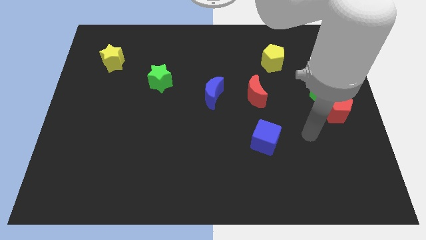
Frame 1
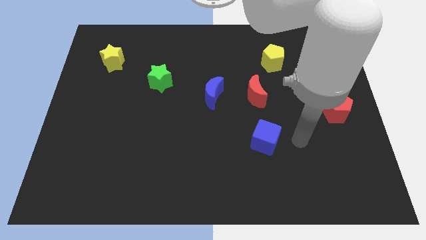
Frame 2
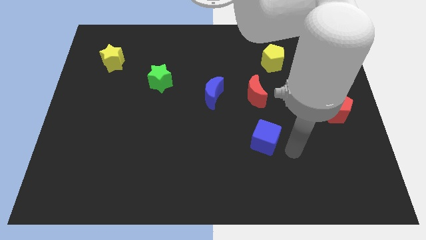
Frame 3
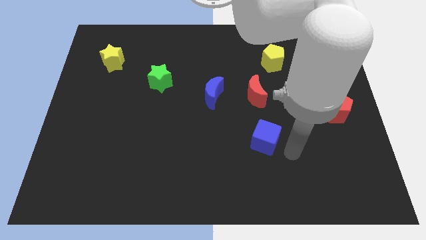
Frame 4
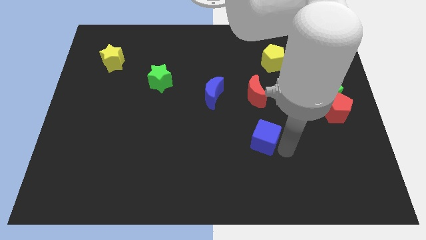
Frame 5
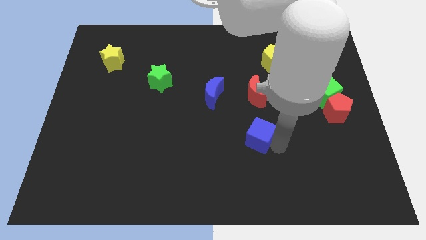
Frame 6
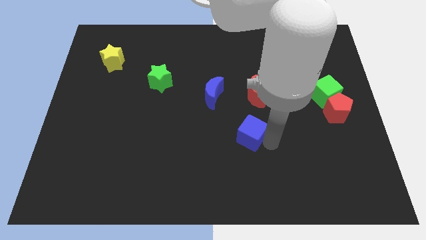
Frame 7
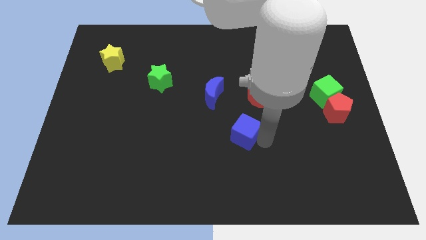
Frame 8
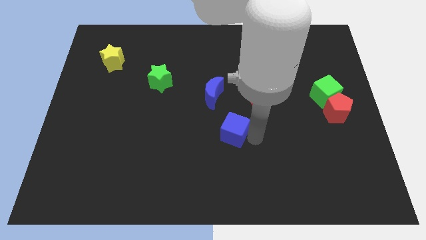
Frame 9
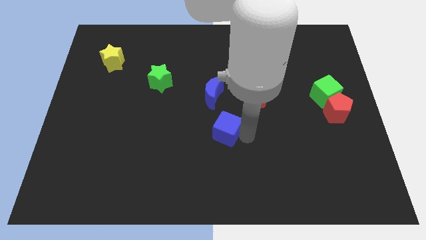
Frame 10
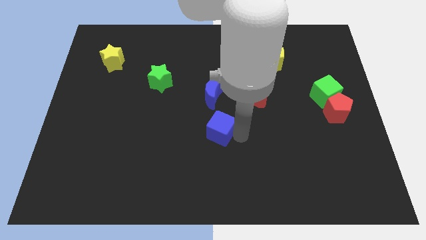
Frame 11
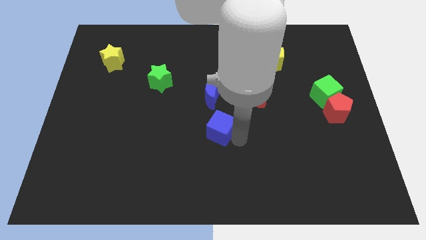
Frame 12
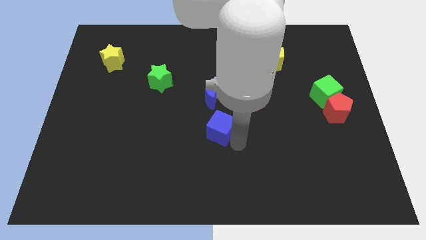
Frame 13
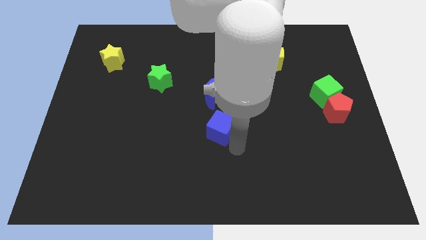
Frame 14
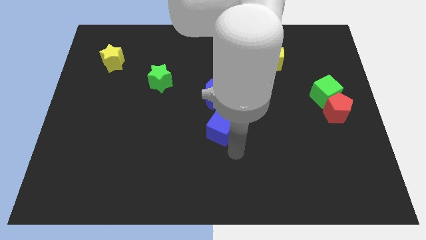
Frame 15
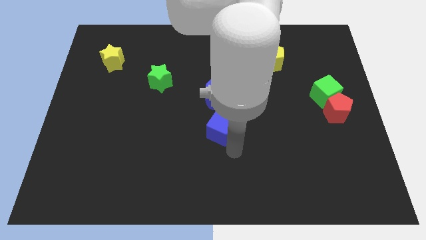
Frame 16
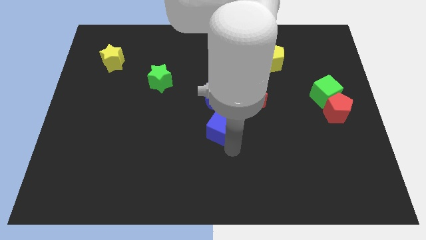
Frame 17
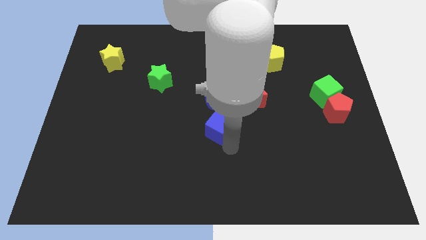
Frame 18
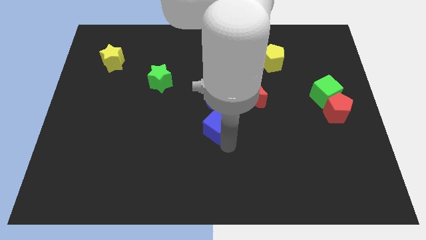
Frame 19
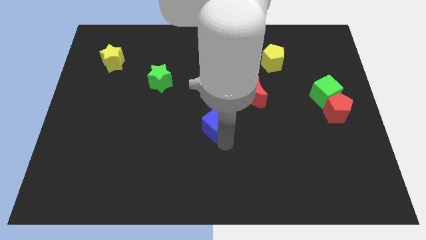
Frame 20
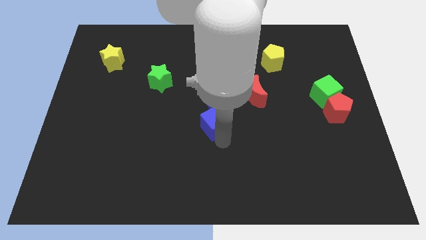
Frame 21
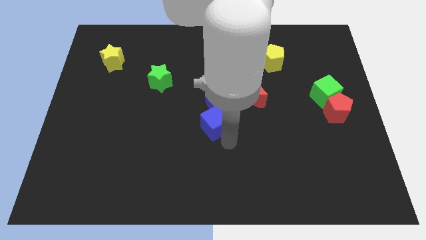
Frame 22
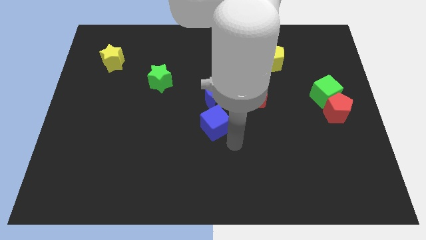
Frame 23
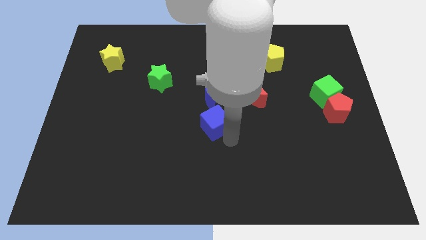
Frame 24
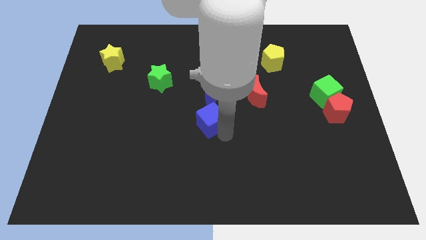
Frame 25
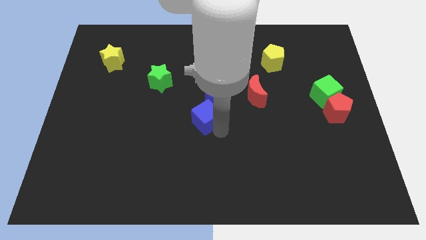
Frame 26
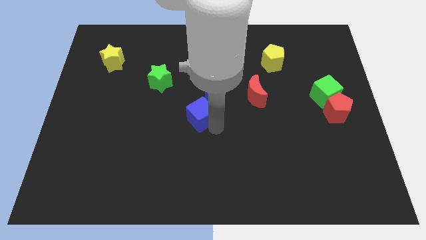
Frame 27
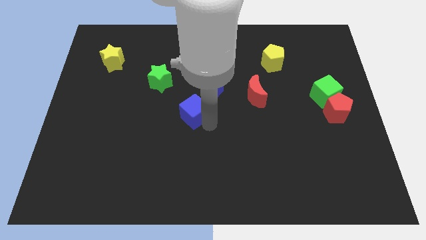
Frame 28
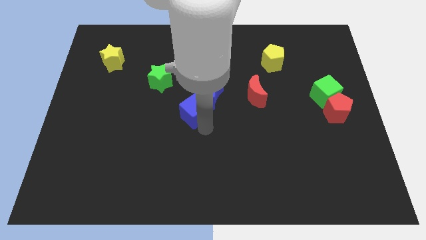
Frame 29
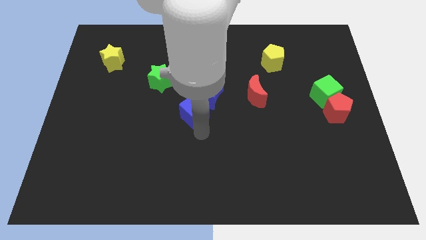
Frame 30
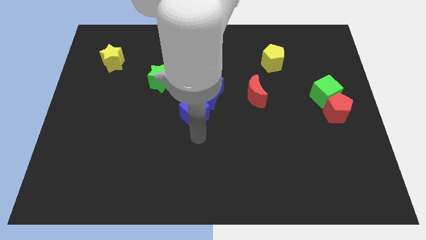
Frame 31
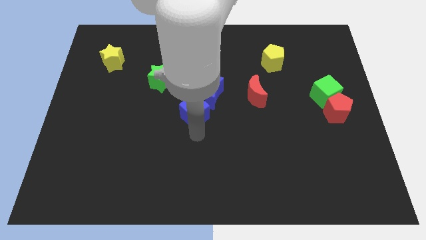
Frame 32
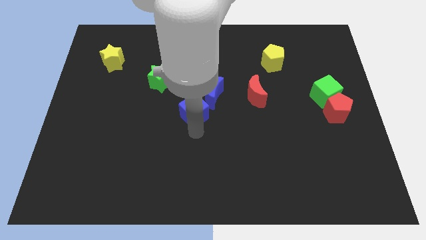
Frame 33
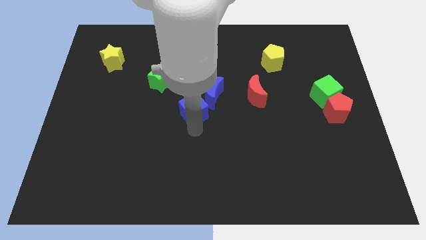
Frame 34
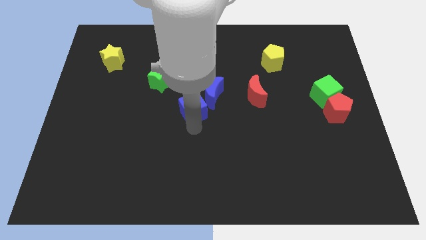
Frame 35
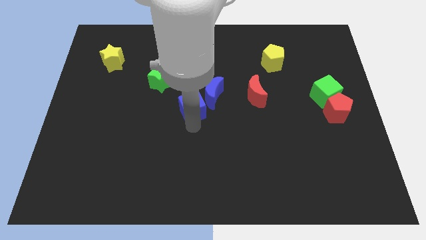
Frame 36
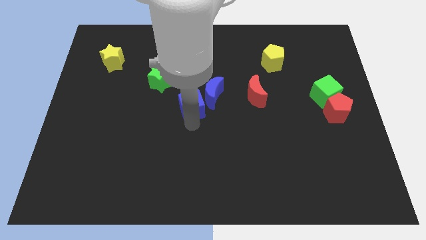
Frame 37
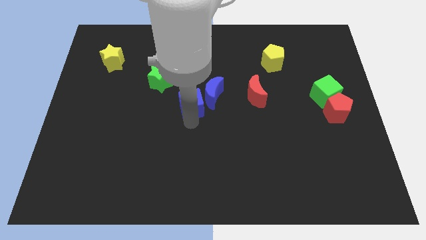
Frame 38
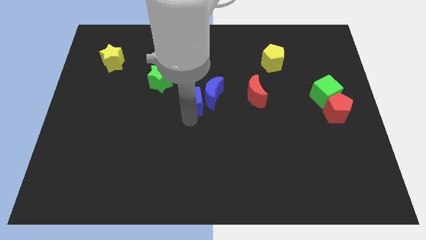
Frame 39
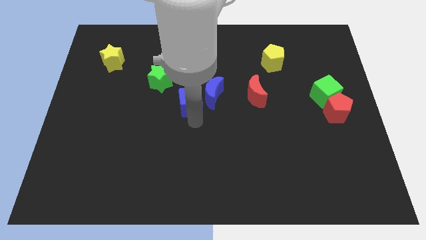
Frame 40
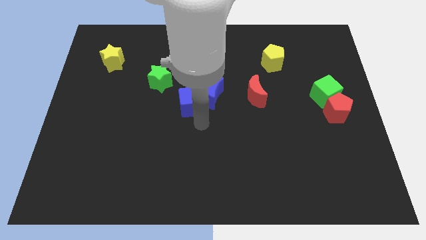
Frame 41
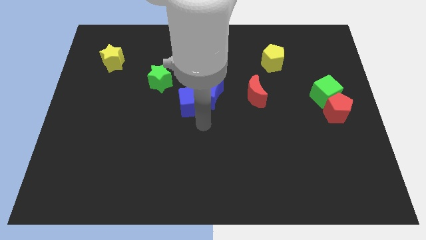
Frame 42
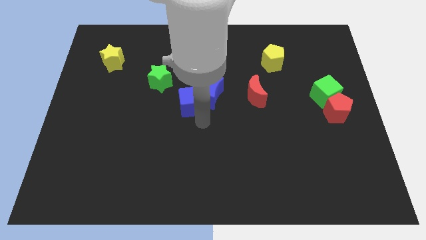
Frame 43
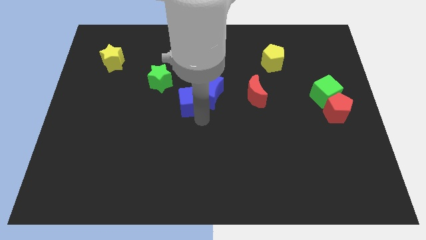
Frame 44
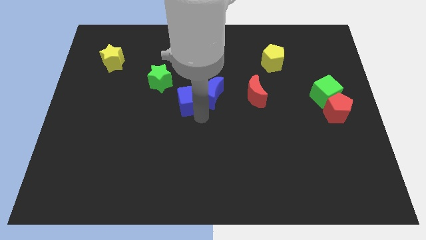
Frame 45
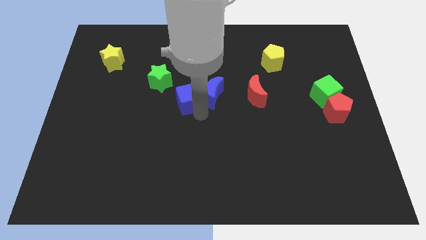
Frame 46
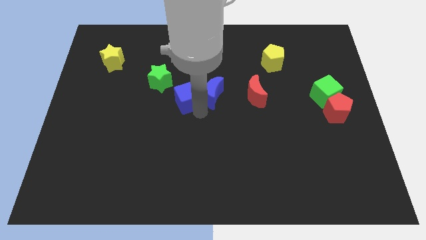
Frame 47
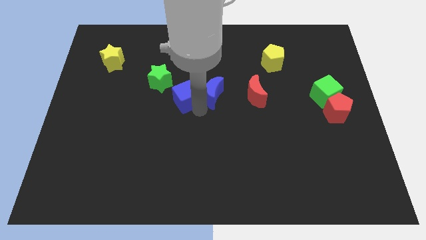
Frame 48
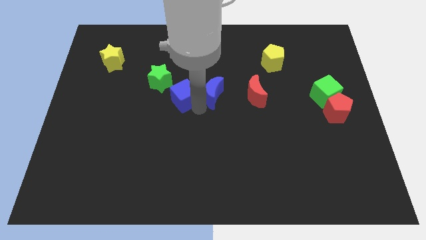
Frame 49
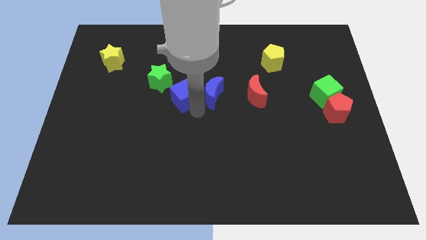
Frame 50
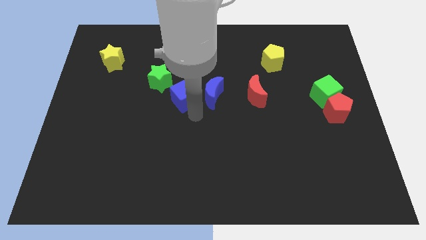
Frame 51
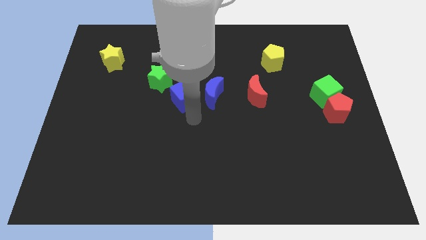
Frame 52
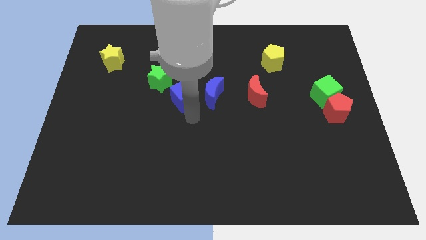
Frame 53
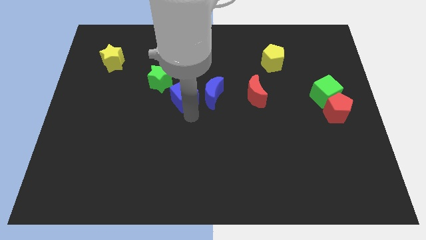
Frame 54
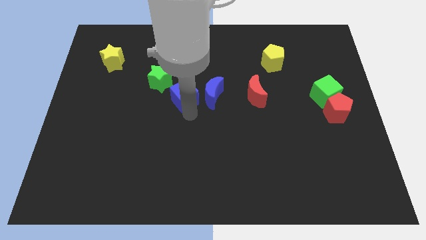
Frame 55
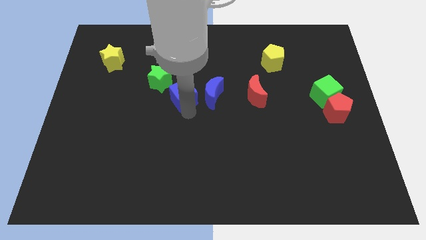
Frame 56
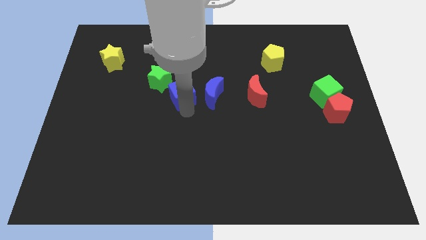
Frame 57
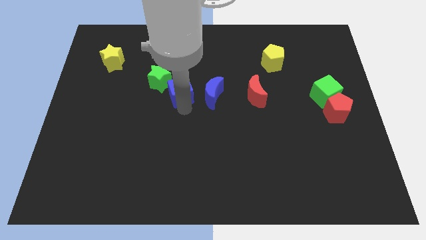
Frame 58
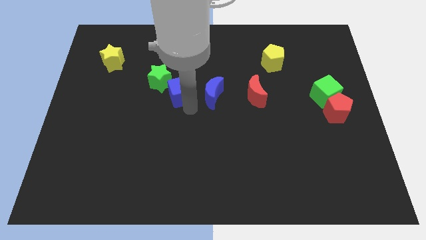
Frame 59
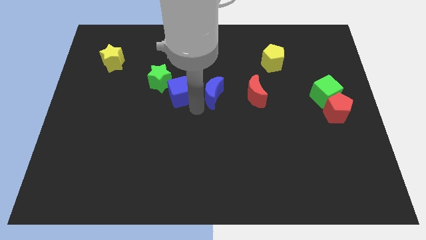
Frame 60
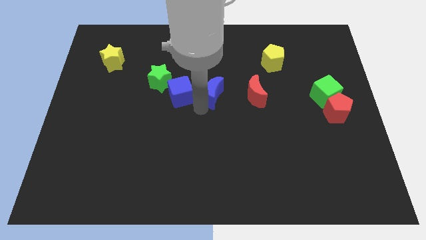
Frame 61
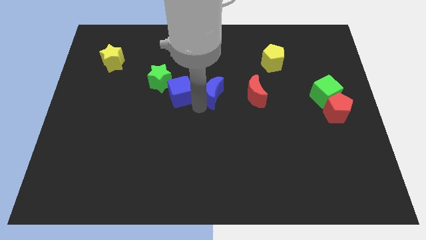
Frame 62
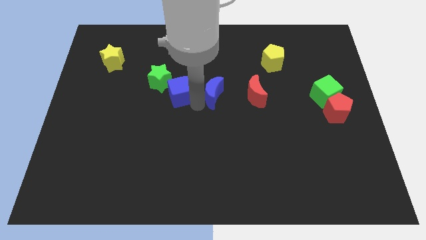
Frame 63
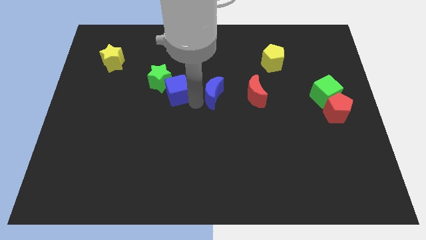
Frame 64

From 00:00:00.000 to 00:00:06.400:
slide the blue cube towards the green star

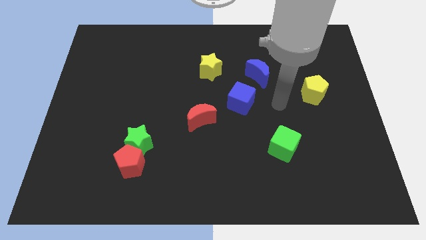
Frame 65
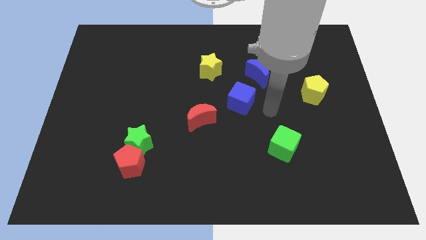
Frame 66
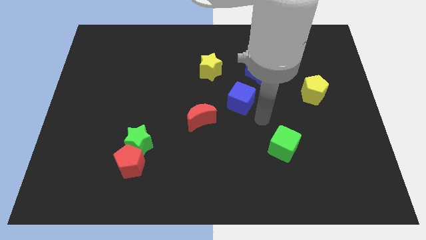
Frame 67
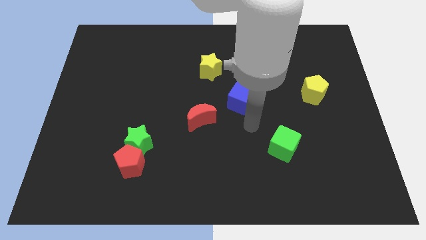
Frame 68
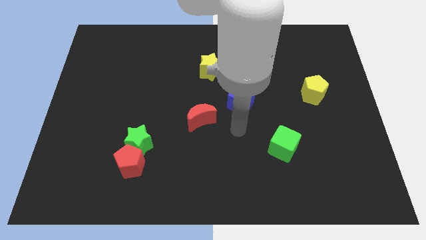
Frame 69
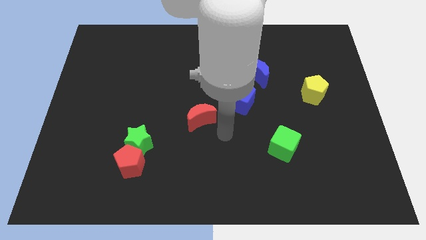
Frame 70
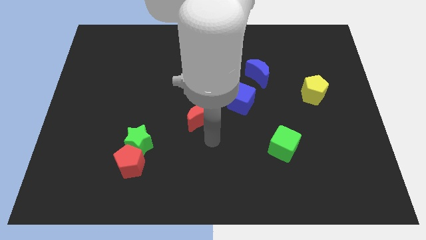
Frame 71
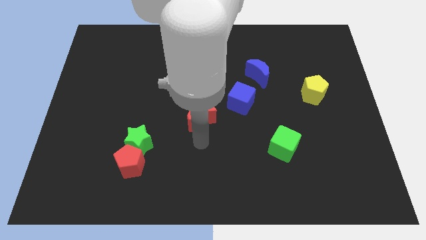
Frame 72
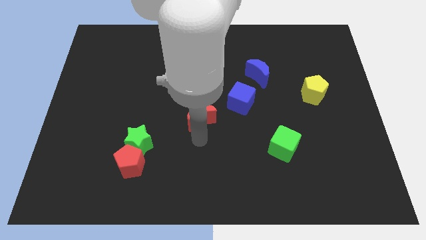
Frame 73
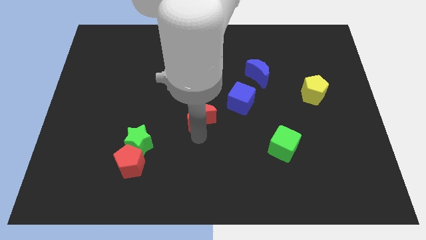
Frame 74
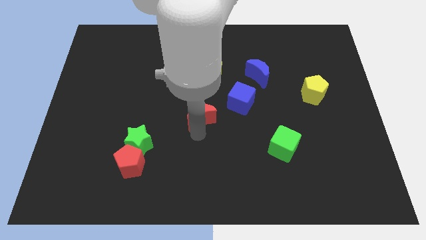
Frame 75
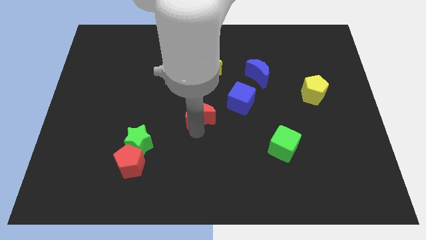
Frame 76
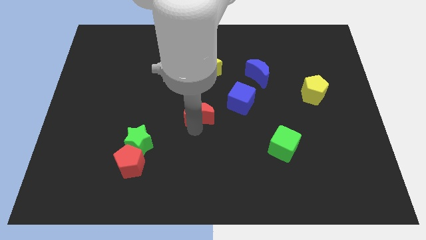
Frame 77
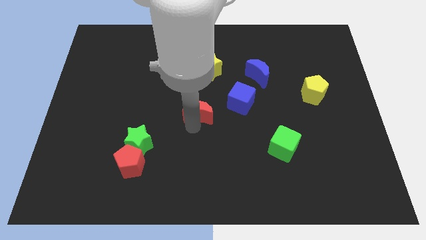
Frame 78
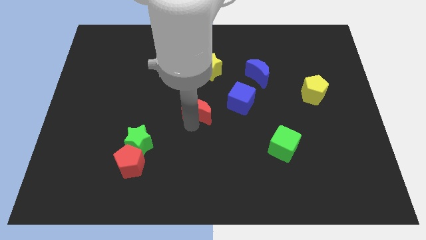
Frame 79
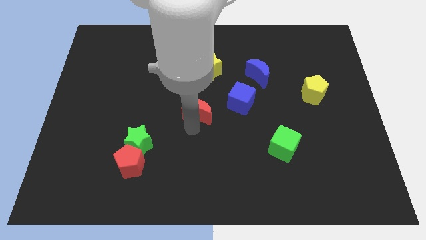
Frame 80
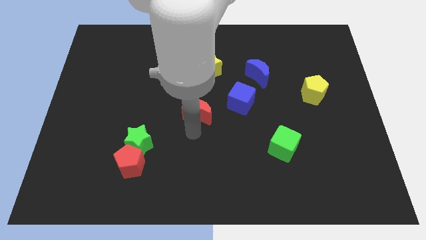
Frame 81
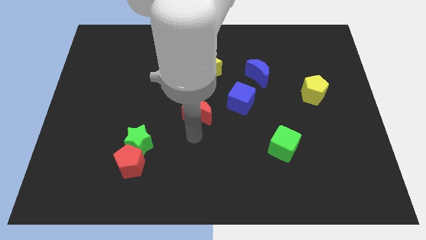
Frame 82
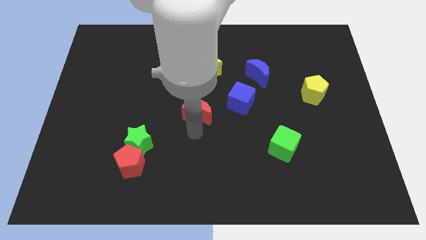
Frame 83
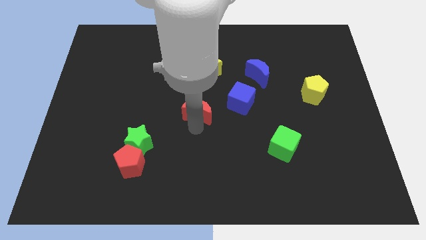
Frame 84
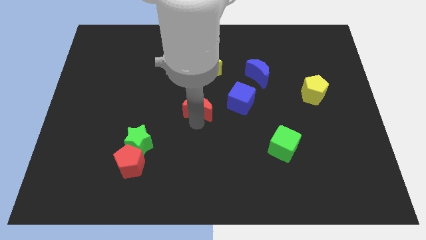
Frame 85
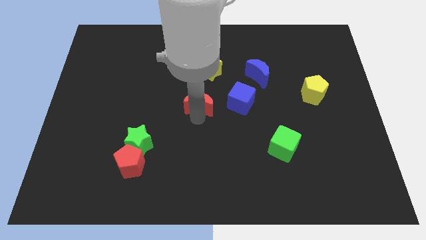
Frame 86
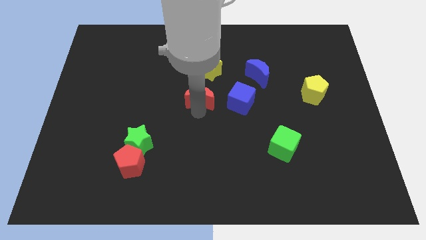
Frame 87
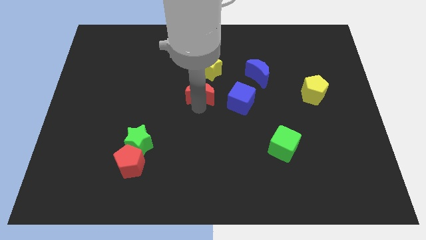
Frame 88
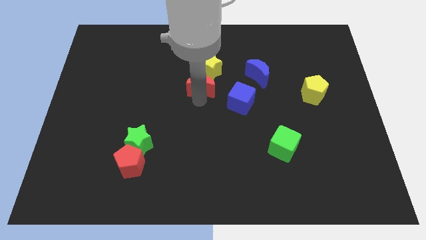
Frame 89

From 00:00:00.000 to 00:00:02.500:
slide the red moon towards the yellow star
